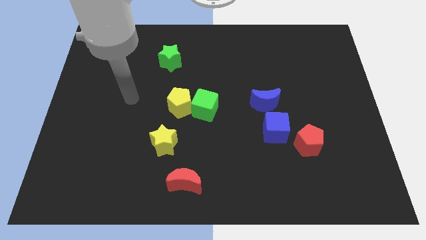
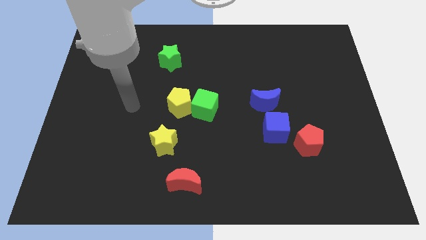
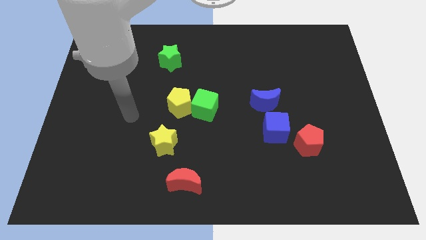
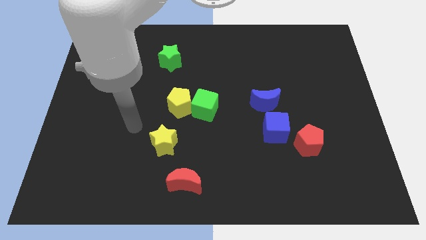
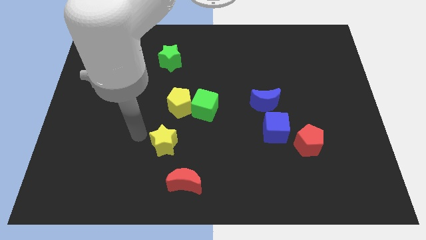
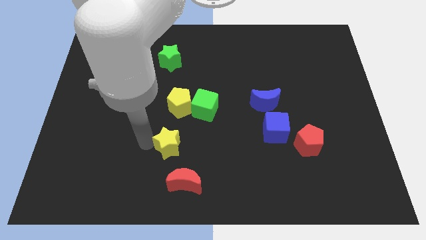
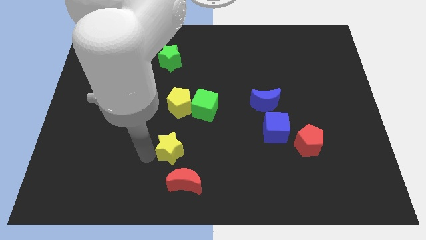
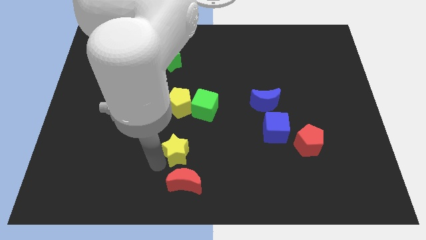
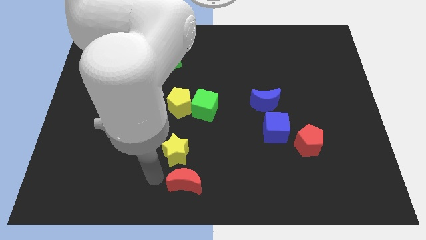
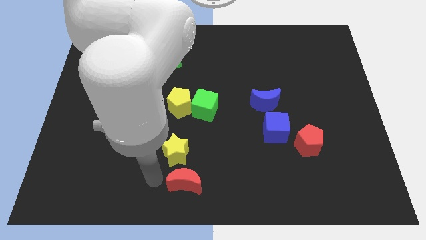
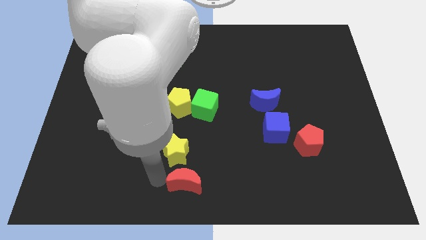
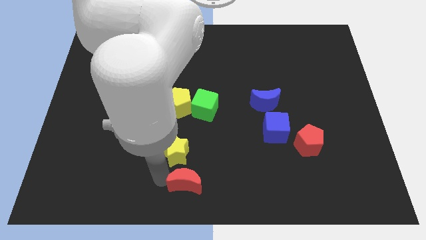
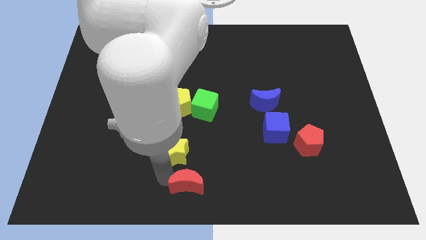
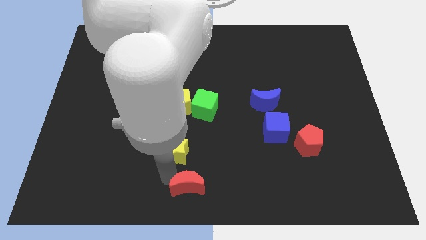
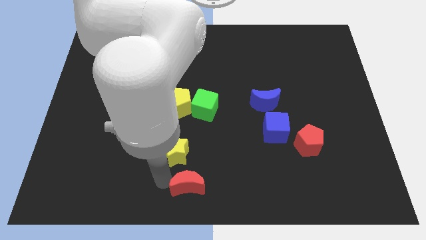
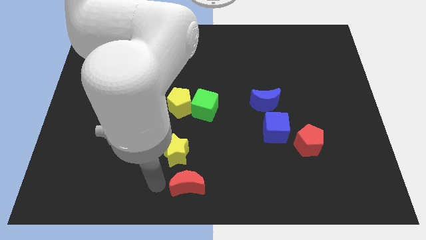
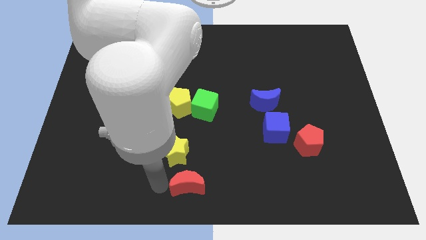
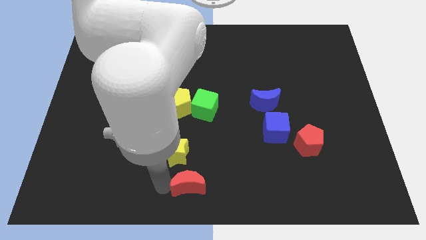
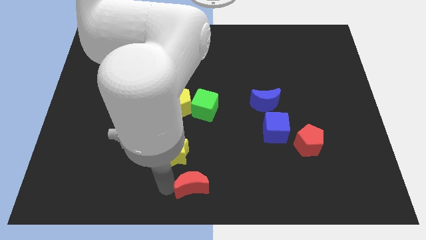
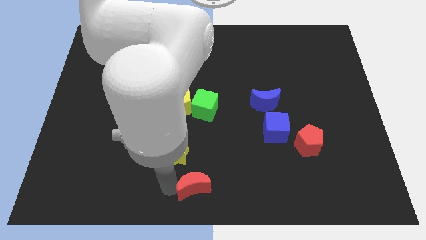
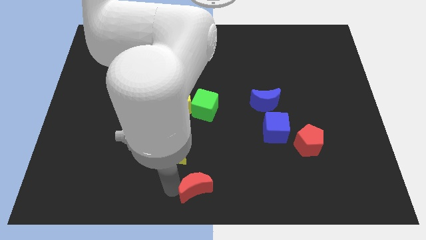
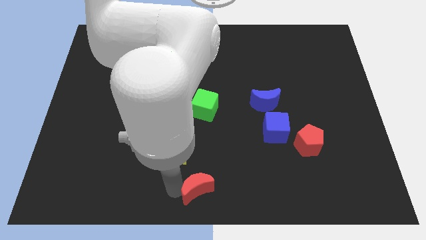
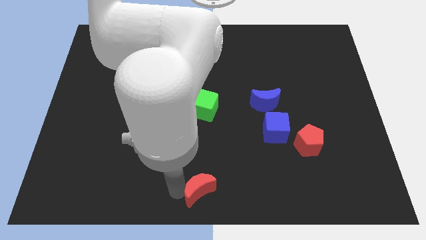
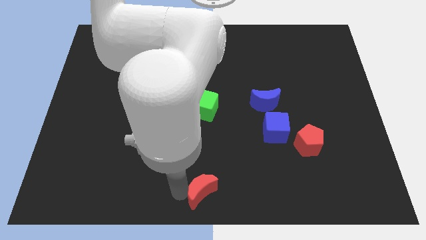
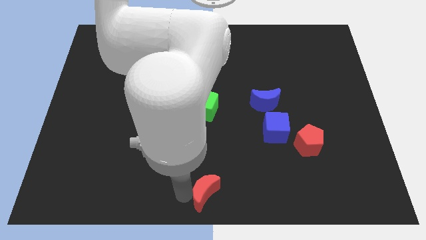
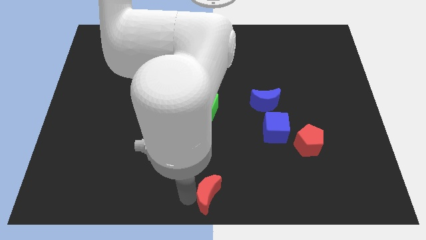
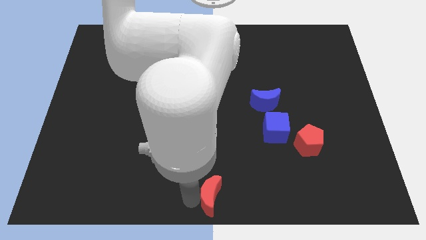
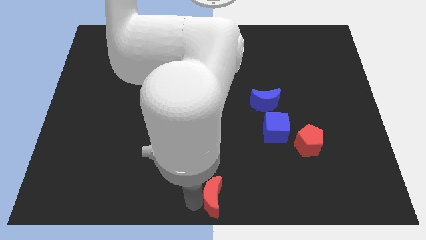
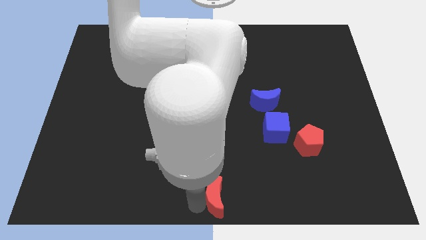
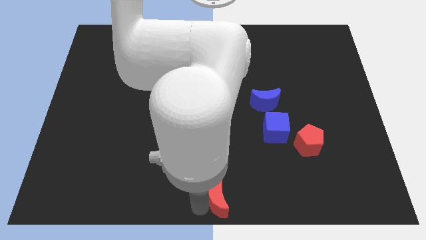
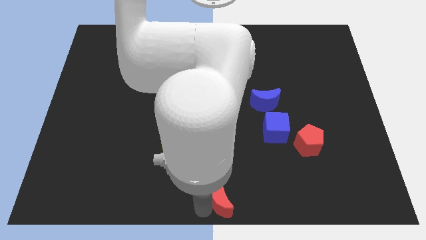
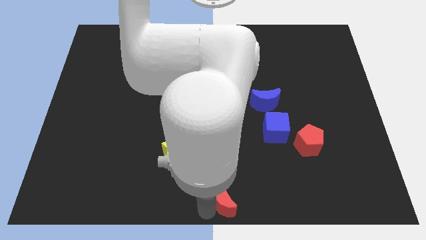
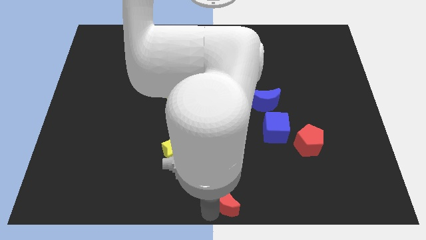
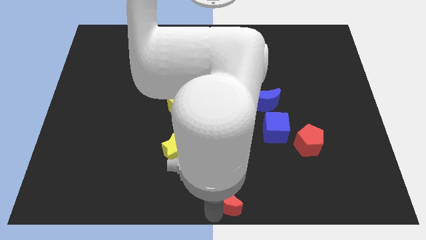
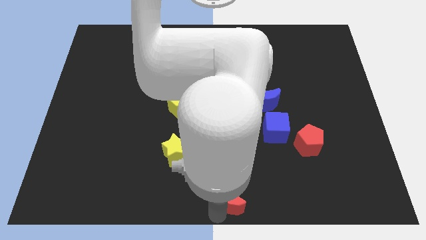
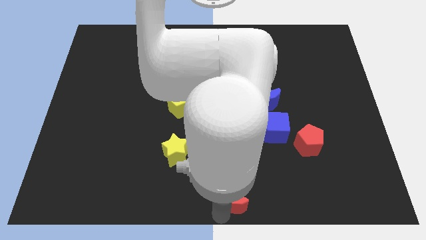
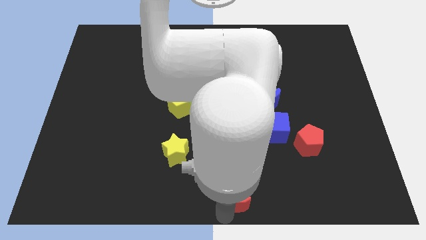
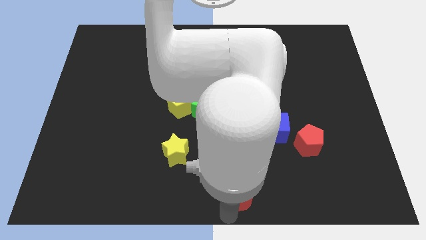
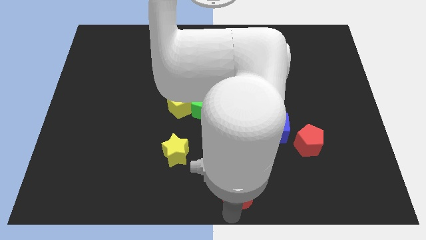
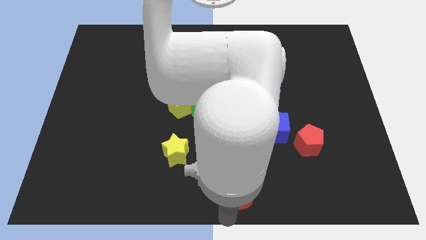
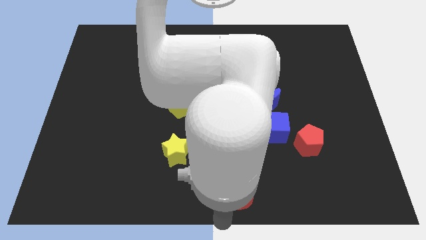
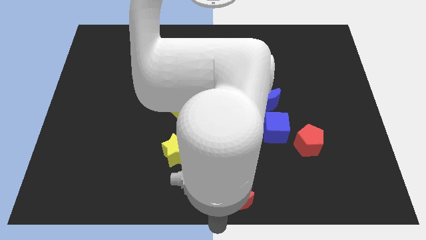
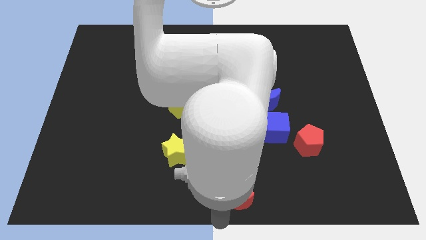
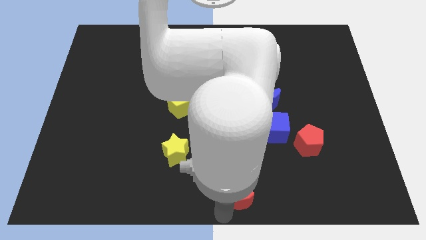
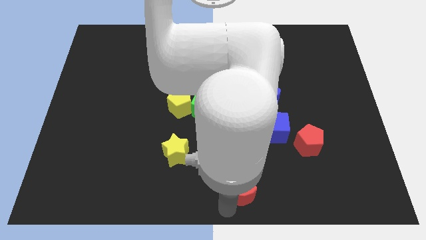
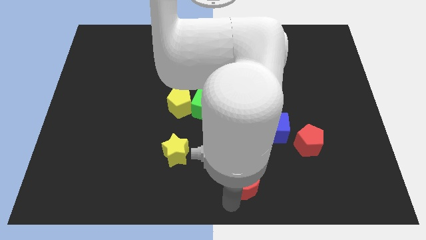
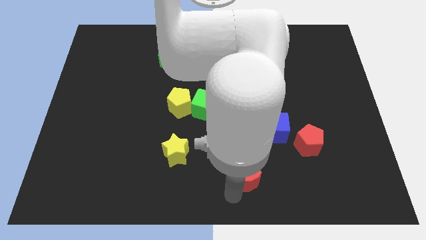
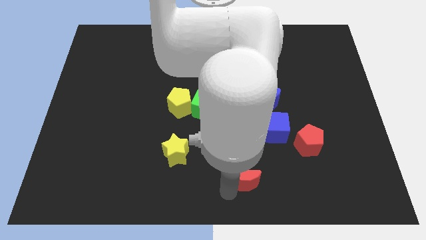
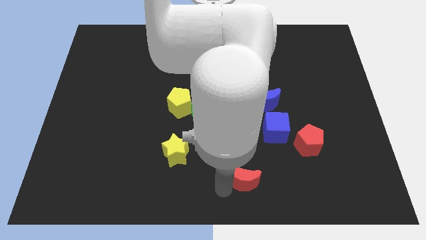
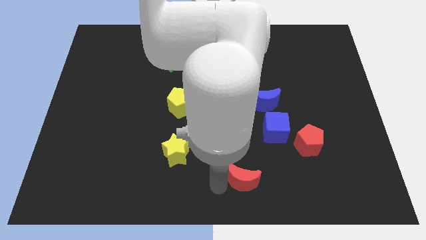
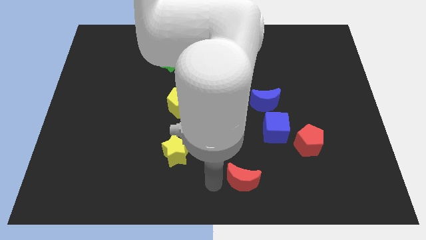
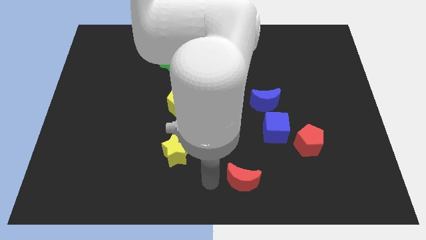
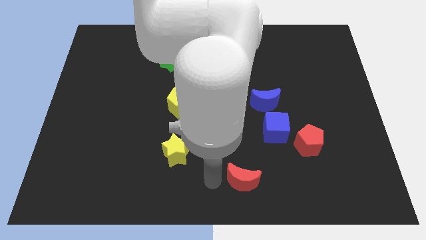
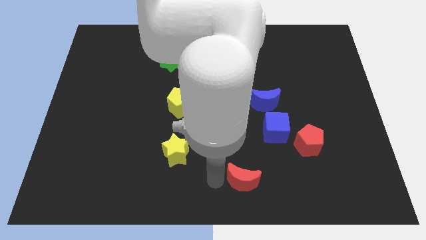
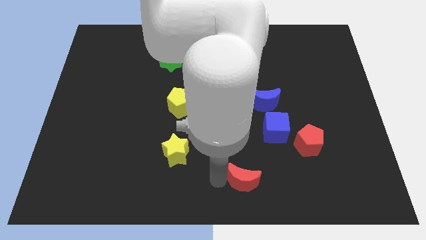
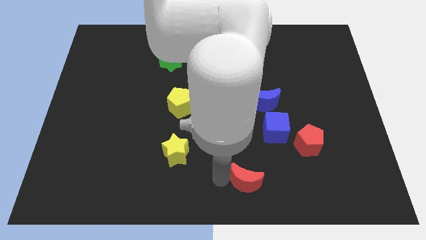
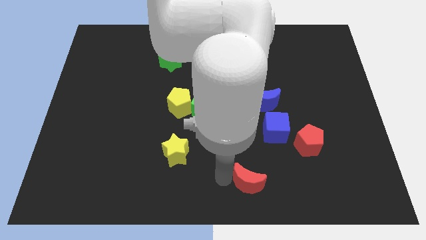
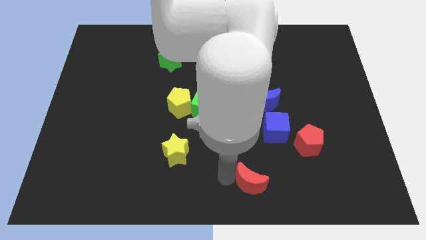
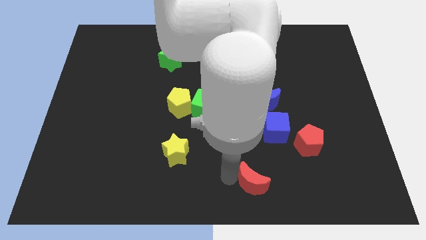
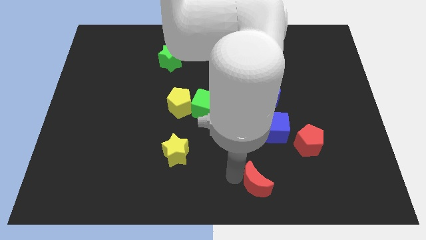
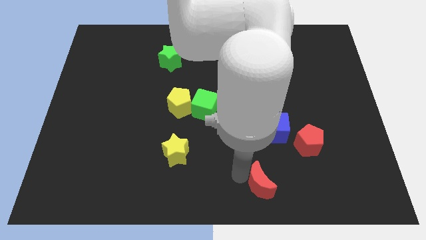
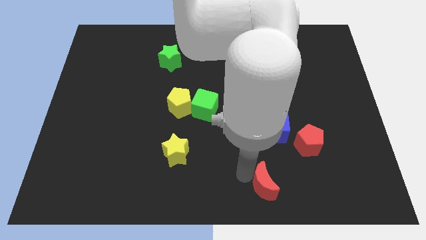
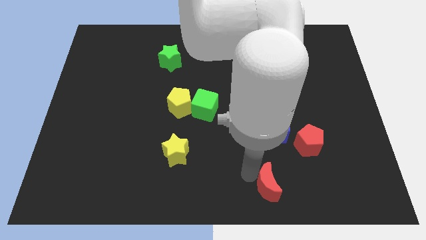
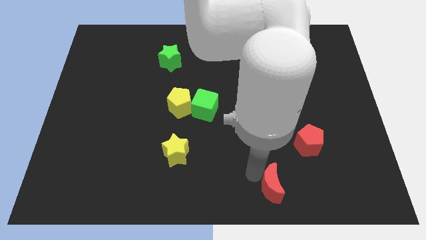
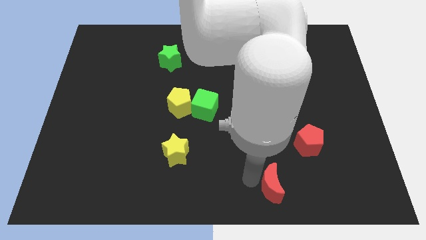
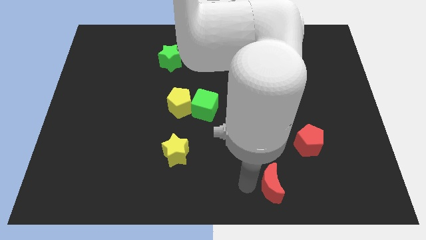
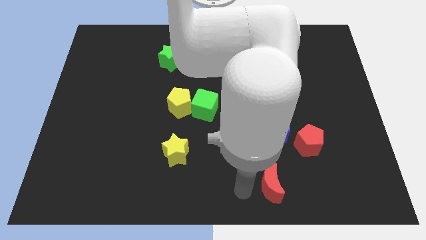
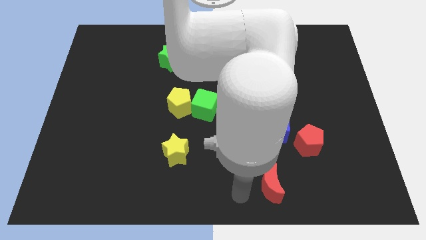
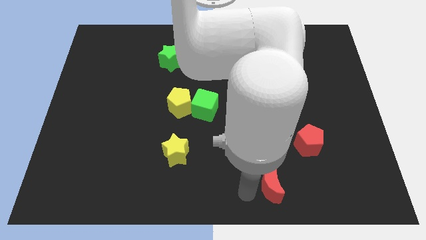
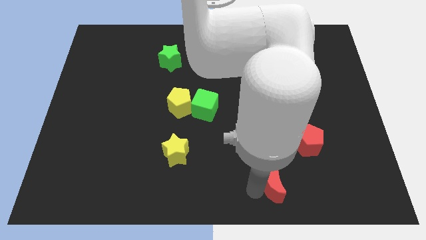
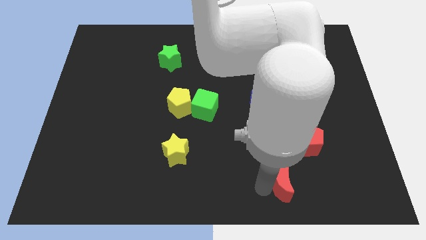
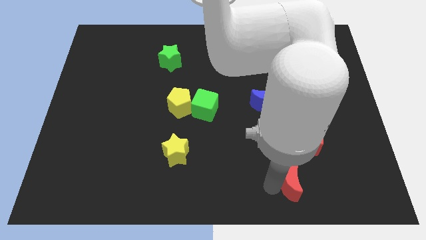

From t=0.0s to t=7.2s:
slide the red moon right

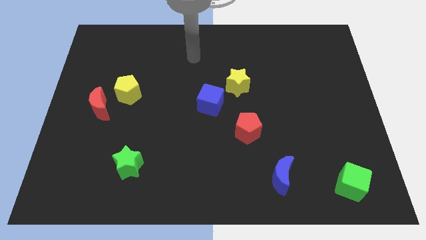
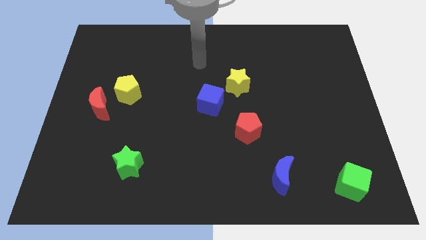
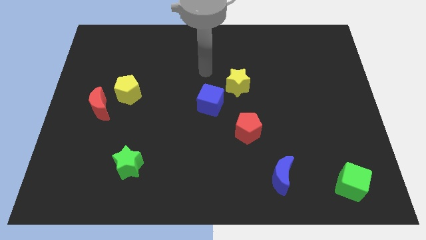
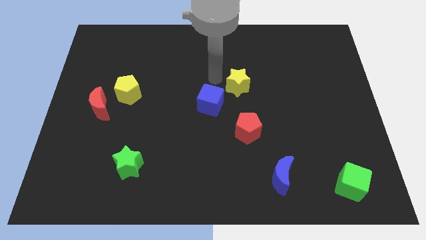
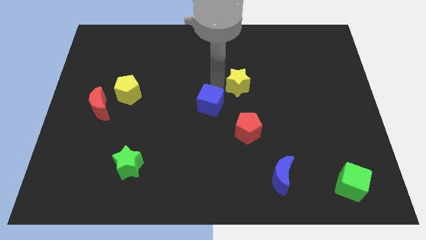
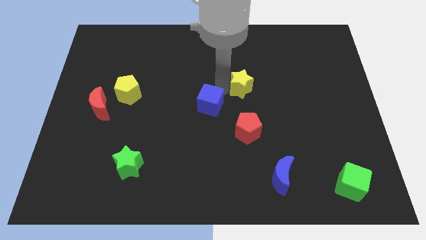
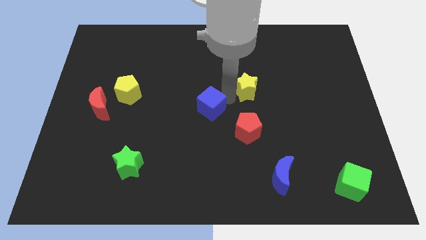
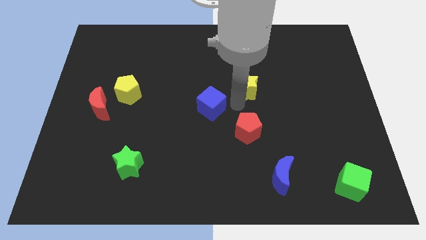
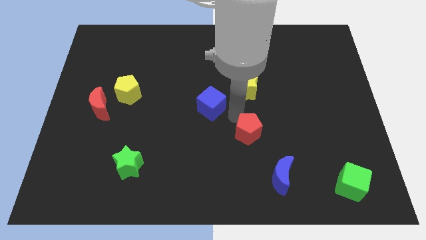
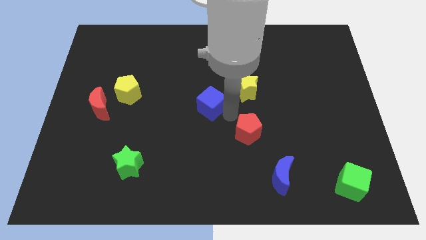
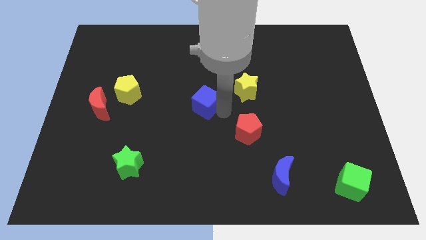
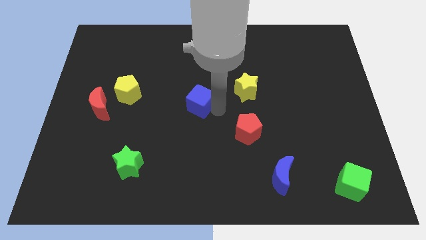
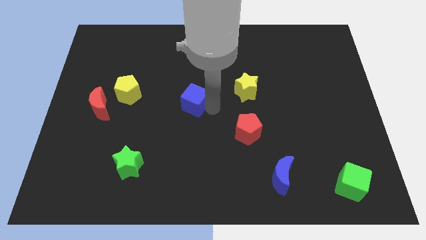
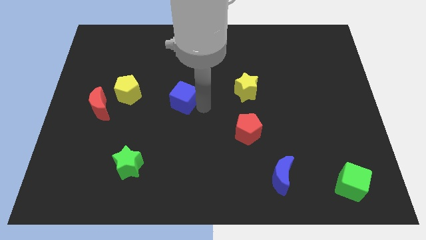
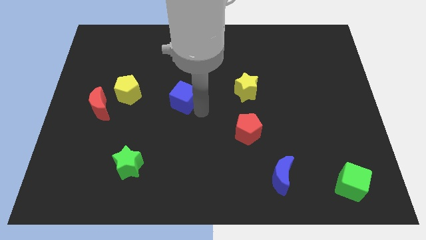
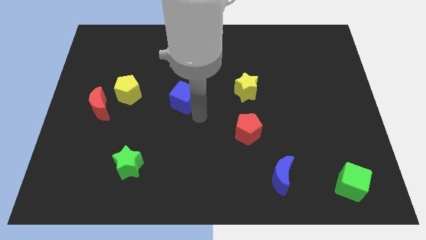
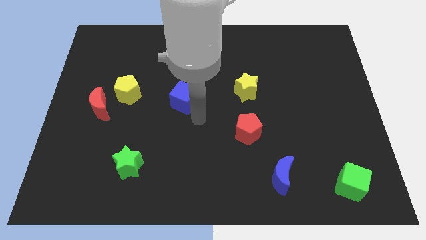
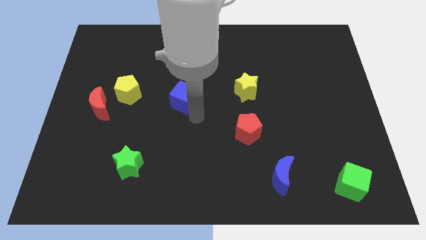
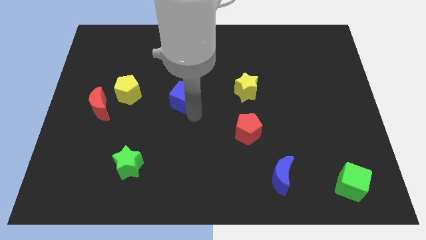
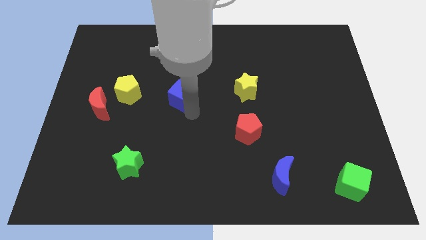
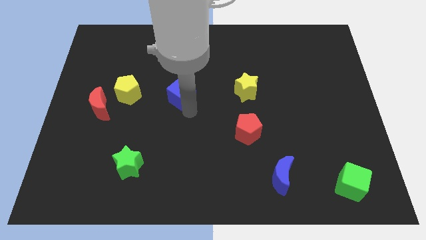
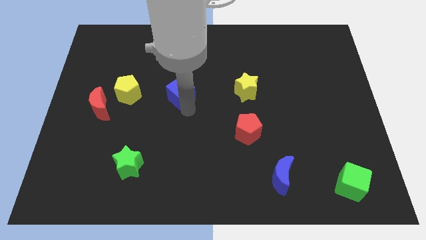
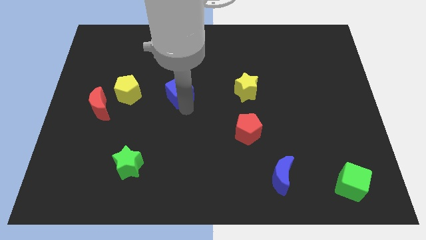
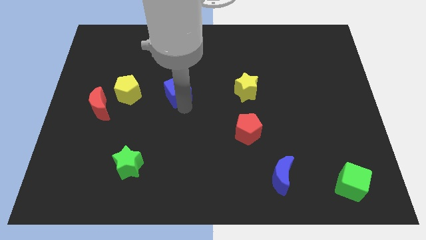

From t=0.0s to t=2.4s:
move the blue cube slightly upwards and to the left
